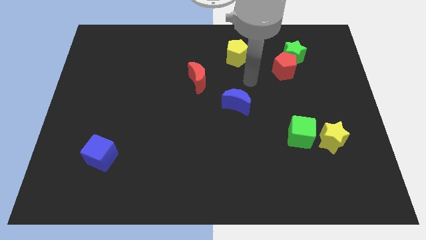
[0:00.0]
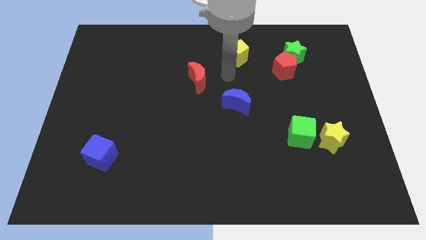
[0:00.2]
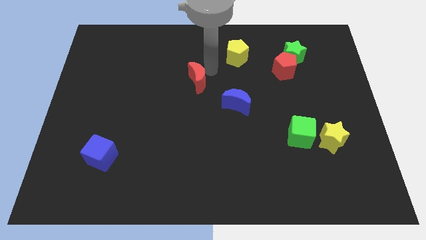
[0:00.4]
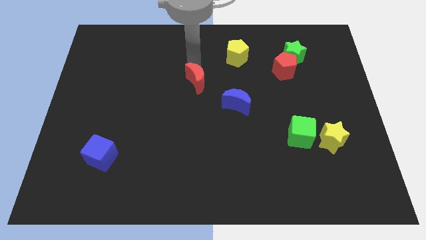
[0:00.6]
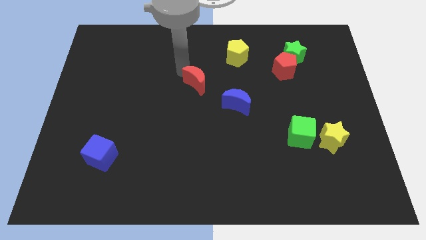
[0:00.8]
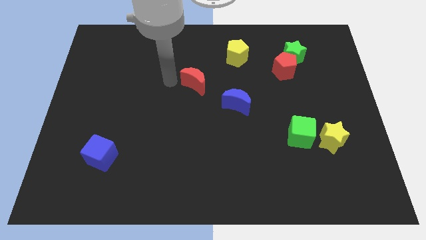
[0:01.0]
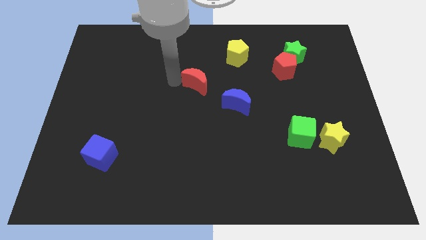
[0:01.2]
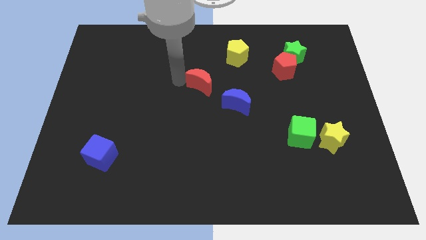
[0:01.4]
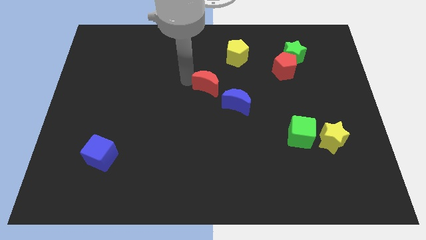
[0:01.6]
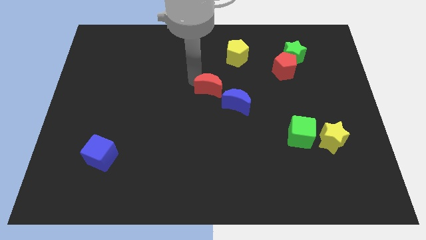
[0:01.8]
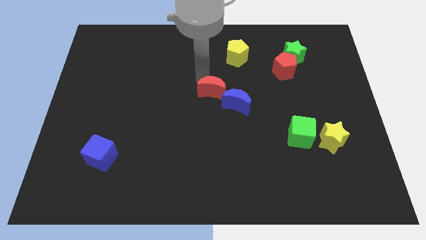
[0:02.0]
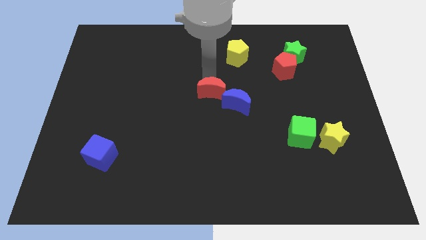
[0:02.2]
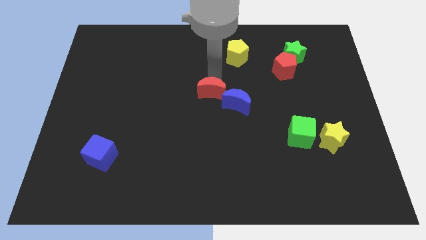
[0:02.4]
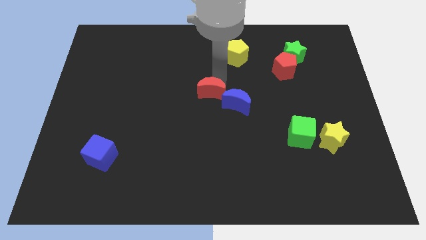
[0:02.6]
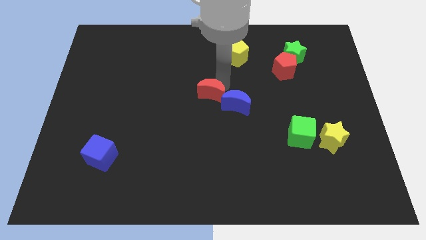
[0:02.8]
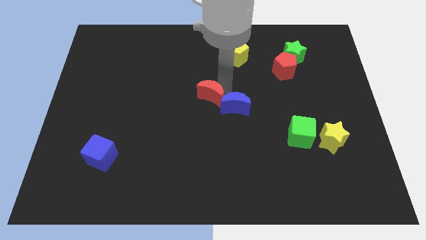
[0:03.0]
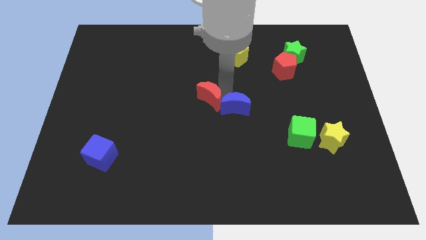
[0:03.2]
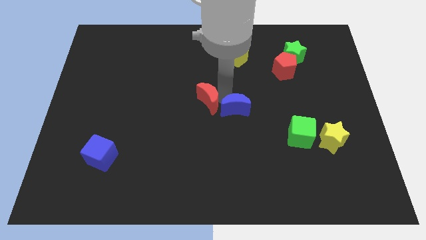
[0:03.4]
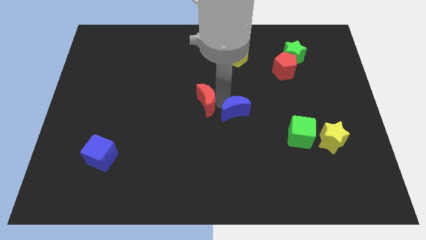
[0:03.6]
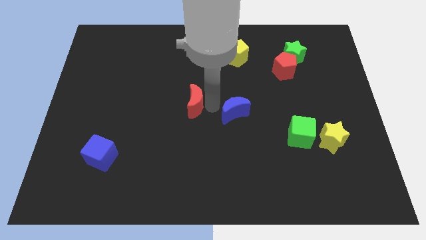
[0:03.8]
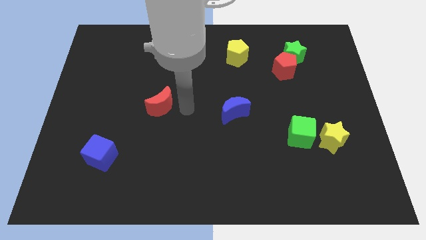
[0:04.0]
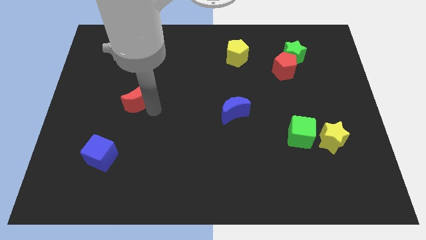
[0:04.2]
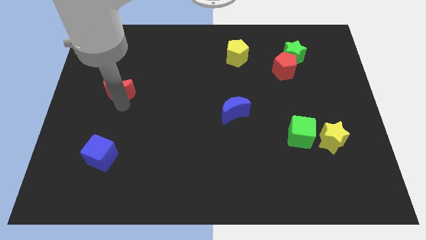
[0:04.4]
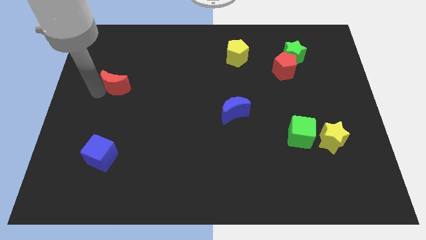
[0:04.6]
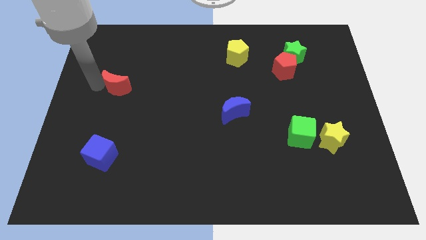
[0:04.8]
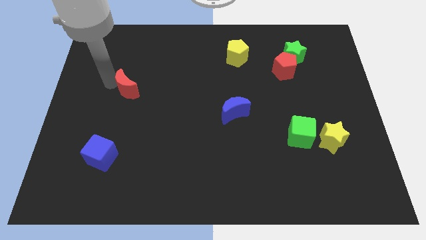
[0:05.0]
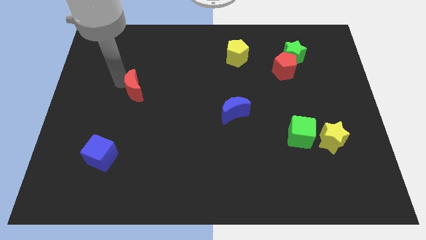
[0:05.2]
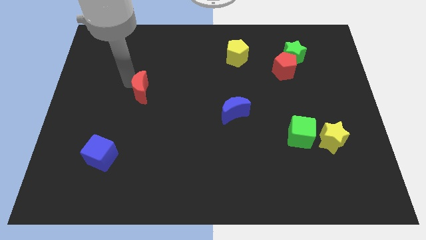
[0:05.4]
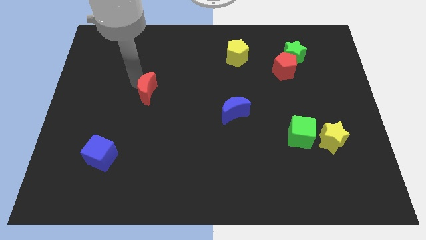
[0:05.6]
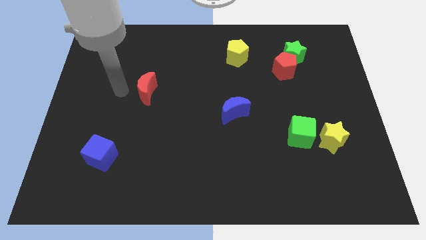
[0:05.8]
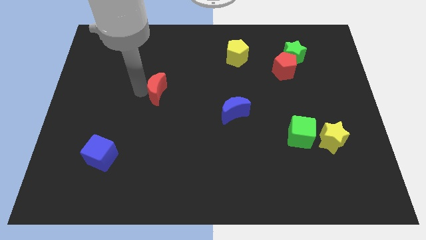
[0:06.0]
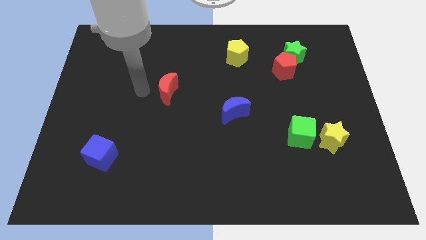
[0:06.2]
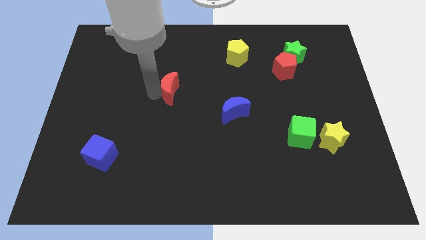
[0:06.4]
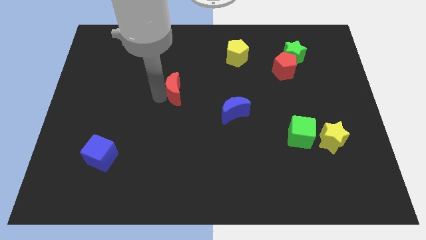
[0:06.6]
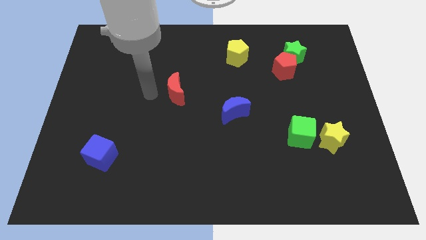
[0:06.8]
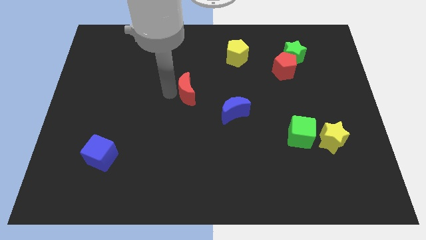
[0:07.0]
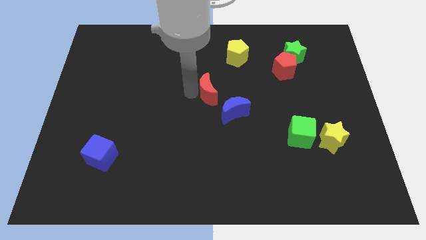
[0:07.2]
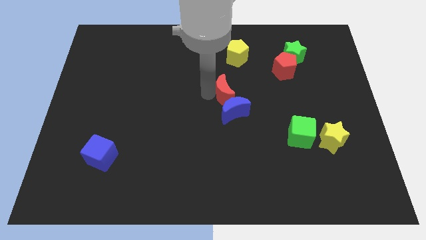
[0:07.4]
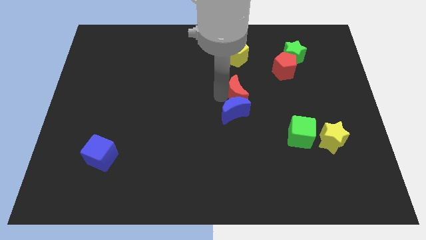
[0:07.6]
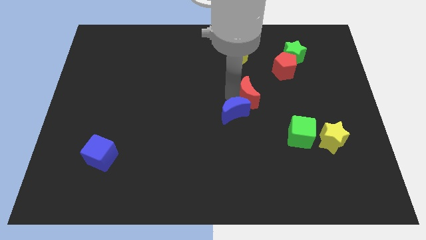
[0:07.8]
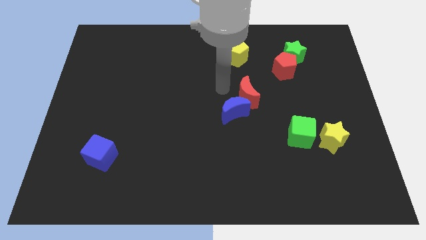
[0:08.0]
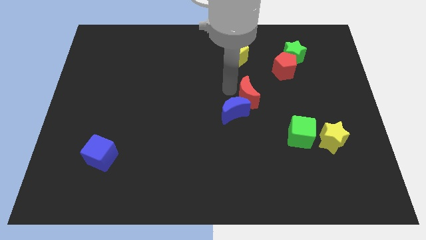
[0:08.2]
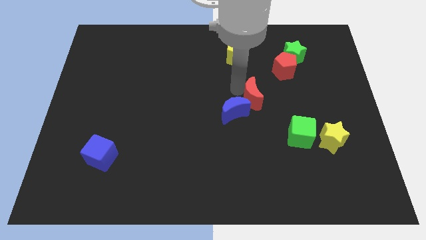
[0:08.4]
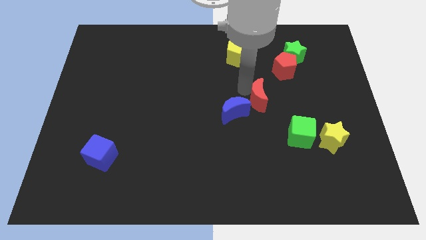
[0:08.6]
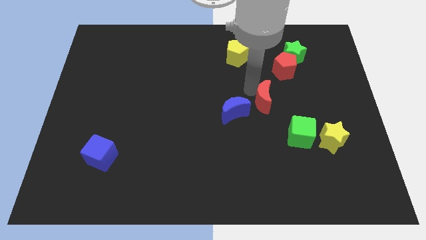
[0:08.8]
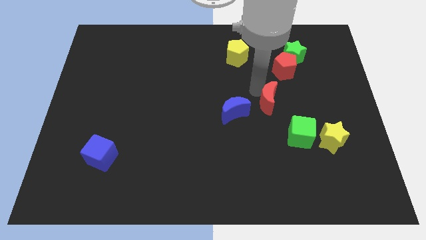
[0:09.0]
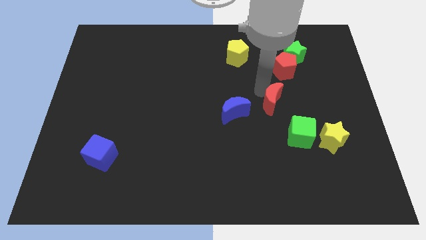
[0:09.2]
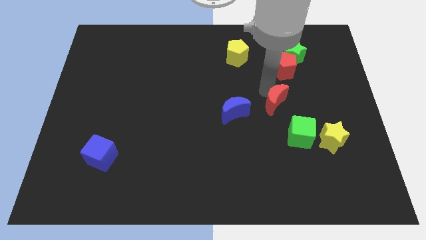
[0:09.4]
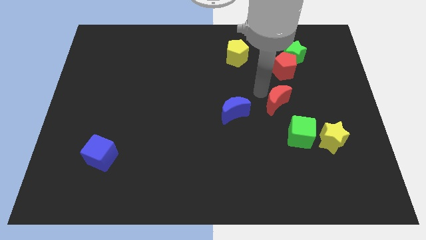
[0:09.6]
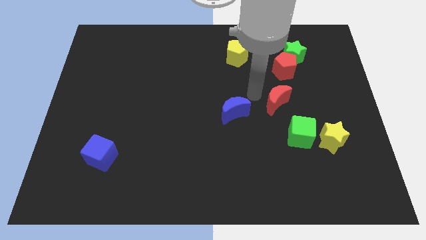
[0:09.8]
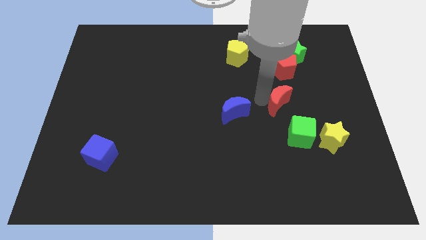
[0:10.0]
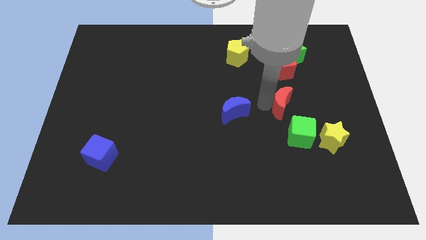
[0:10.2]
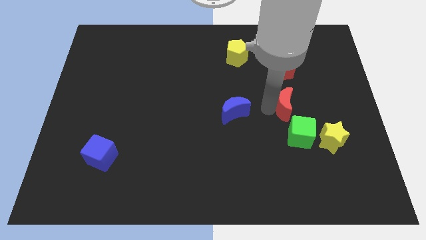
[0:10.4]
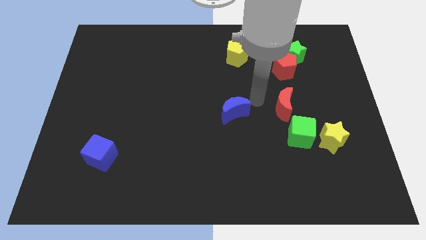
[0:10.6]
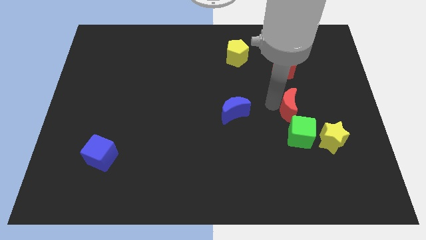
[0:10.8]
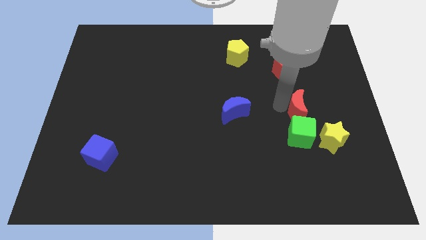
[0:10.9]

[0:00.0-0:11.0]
push the red moon diagonally up and to the right of the green cube

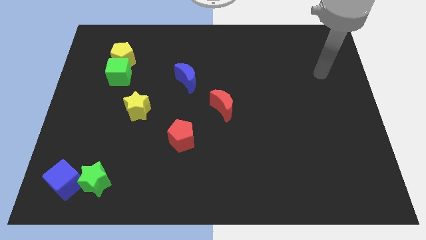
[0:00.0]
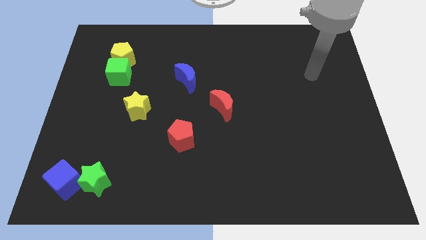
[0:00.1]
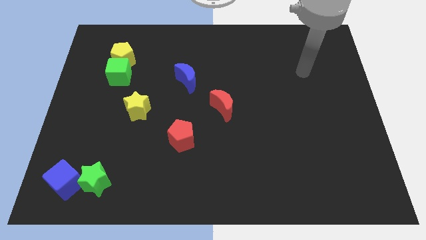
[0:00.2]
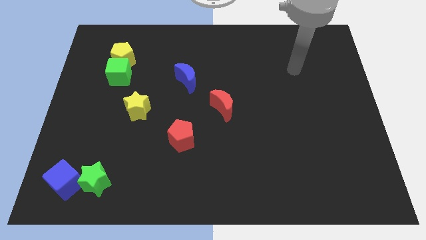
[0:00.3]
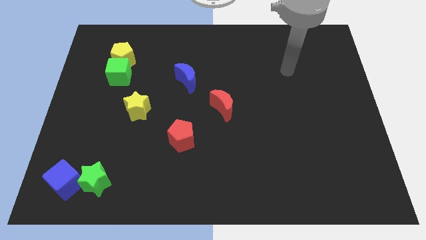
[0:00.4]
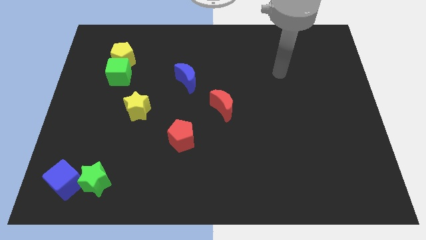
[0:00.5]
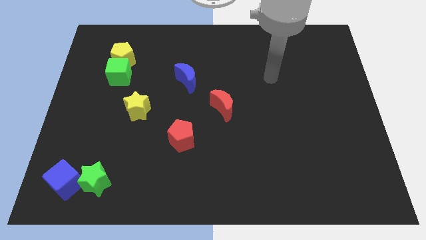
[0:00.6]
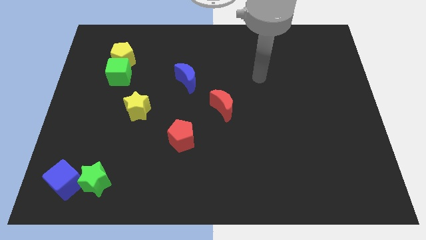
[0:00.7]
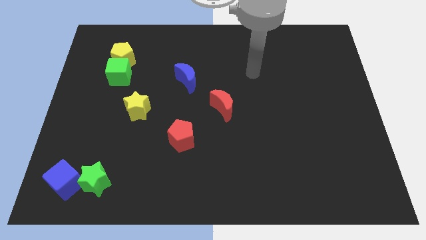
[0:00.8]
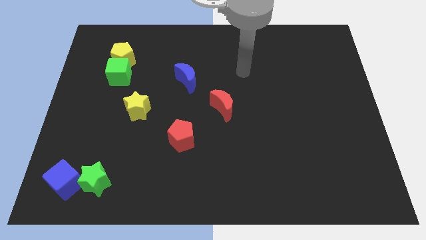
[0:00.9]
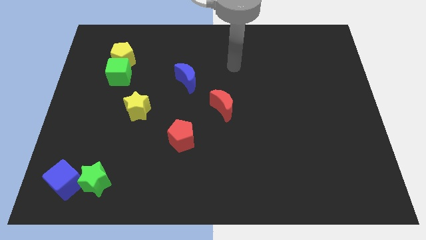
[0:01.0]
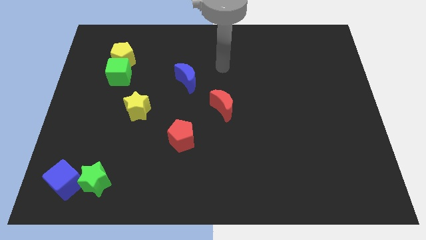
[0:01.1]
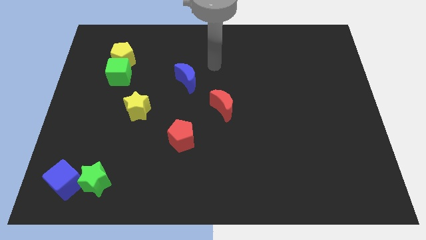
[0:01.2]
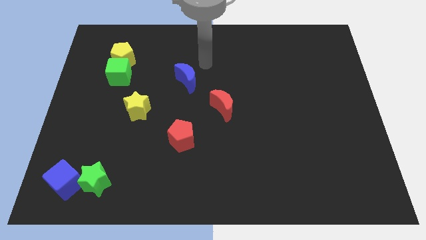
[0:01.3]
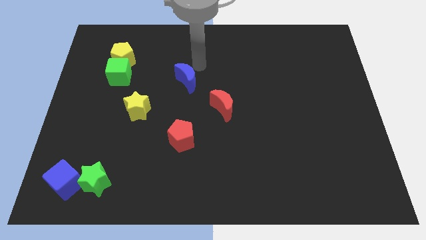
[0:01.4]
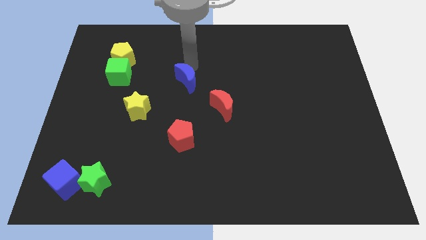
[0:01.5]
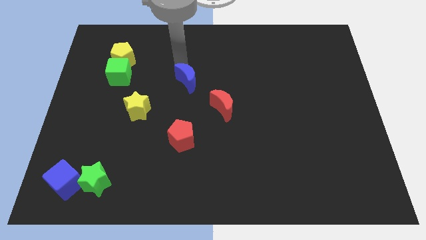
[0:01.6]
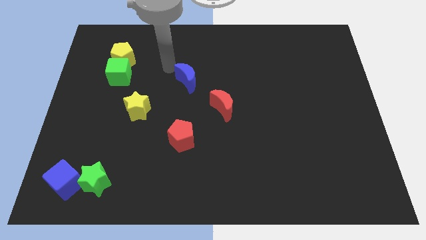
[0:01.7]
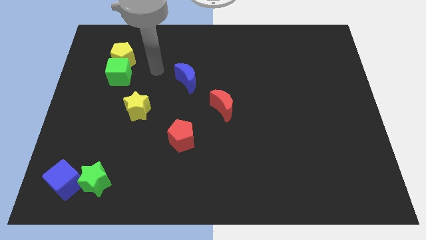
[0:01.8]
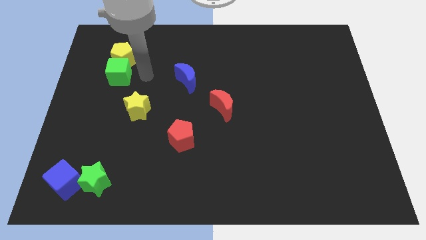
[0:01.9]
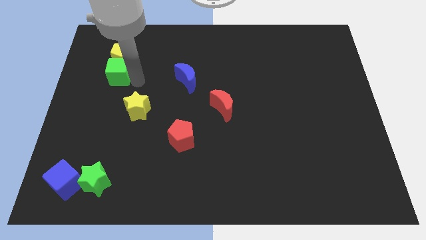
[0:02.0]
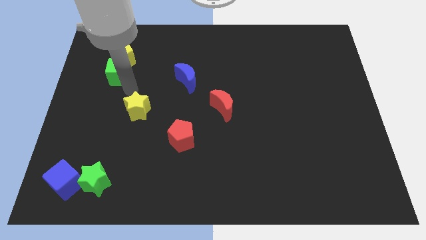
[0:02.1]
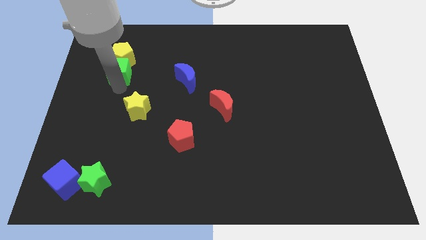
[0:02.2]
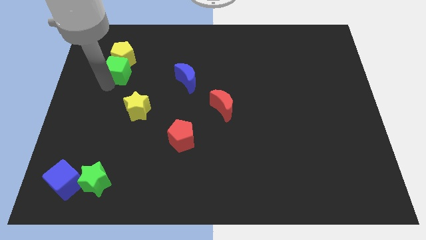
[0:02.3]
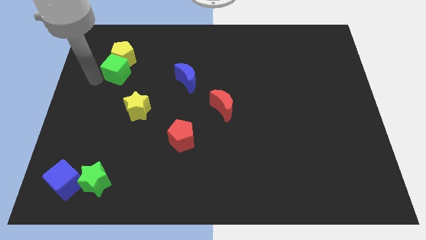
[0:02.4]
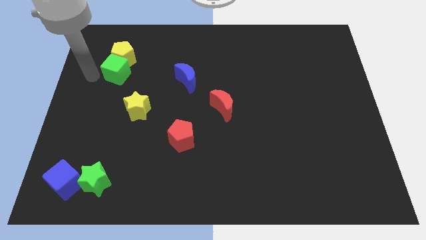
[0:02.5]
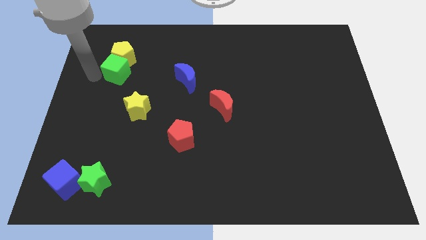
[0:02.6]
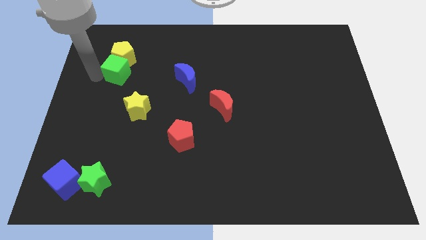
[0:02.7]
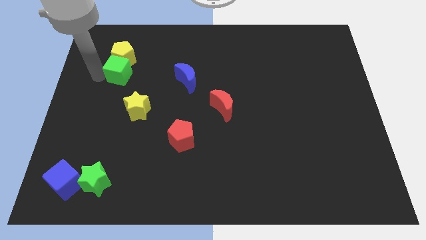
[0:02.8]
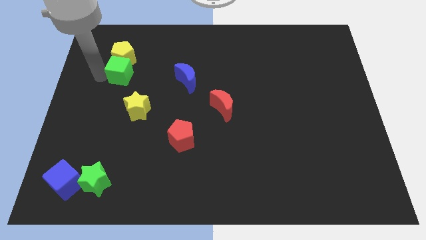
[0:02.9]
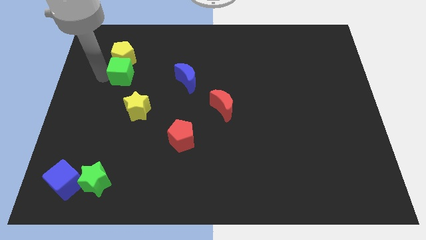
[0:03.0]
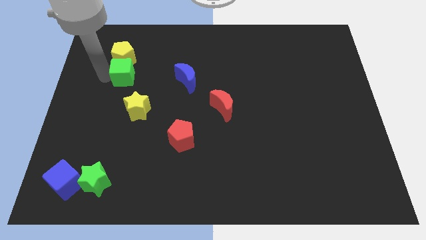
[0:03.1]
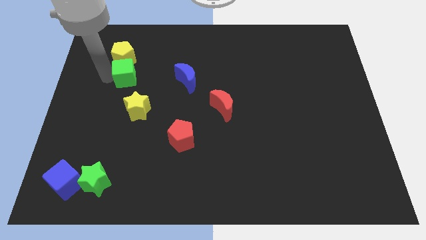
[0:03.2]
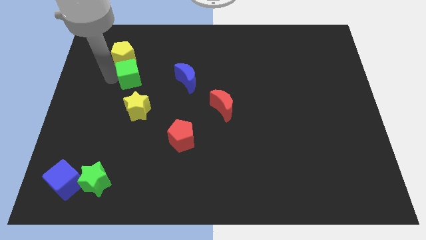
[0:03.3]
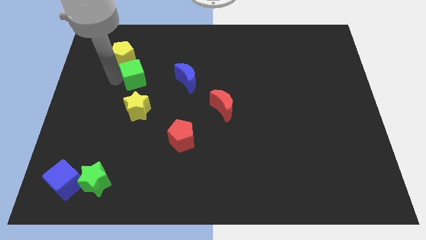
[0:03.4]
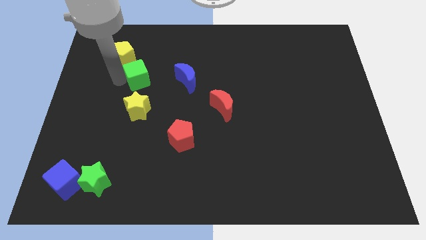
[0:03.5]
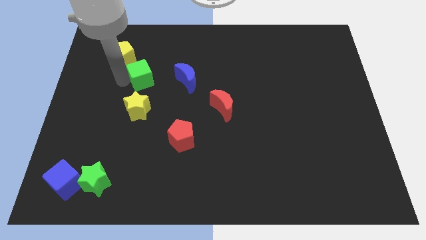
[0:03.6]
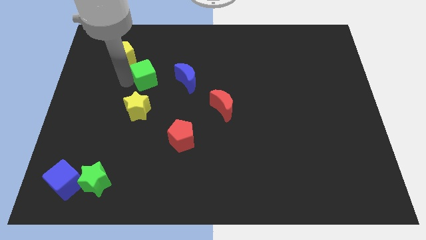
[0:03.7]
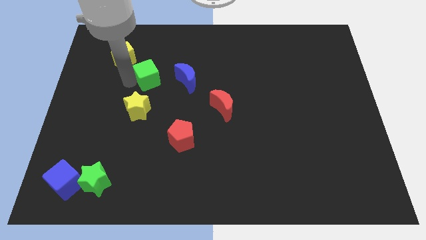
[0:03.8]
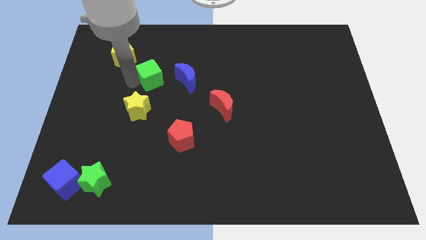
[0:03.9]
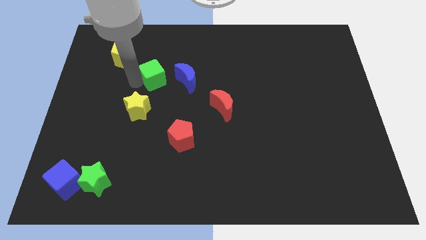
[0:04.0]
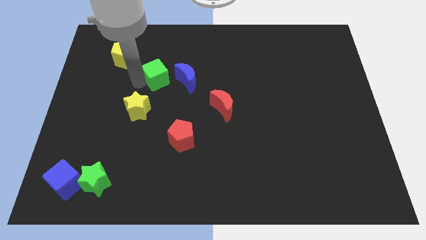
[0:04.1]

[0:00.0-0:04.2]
push the green cube diagonally up and to the left of the blue moon
